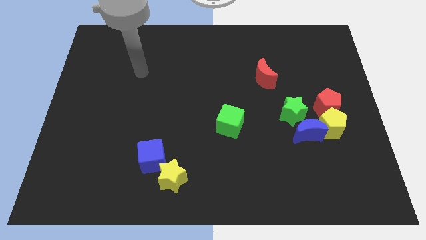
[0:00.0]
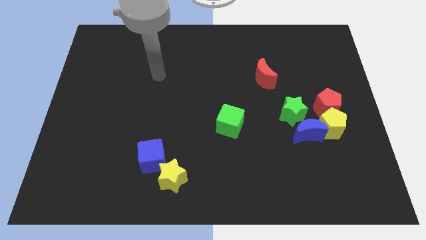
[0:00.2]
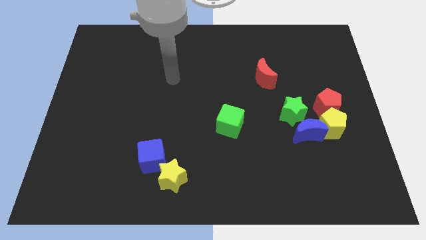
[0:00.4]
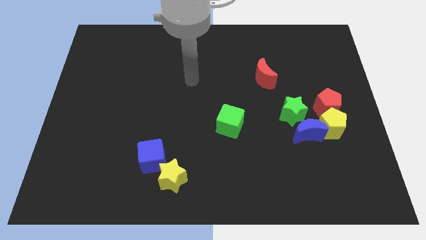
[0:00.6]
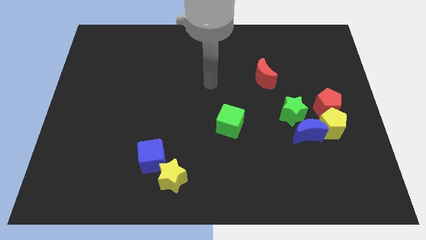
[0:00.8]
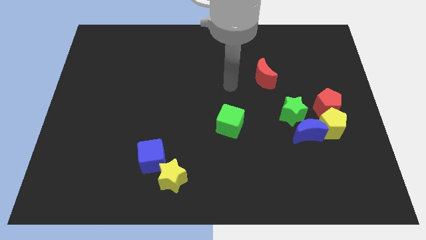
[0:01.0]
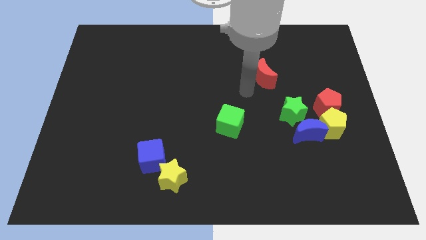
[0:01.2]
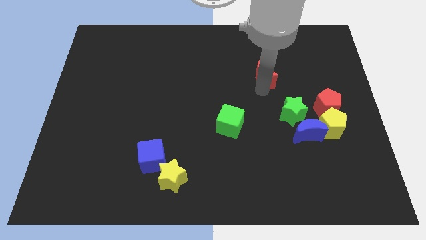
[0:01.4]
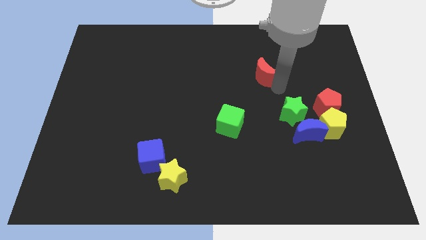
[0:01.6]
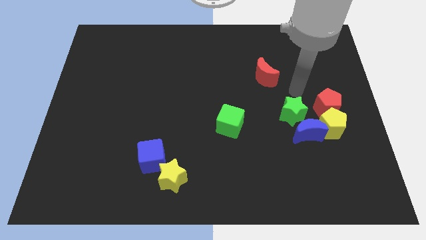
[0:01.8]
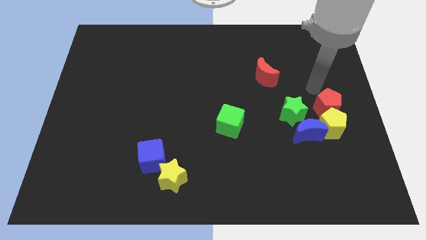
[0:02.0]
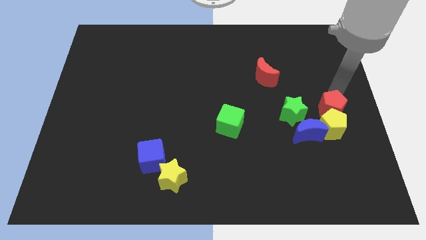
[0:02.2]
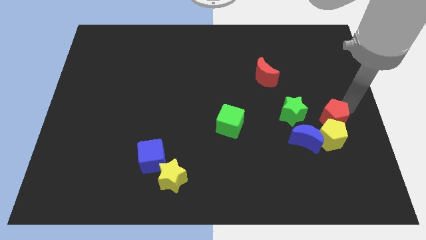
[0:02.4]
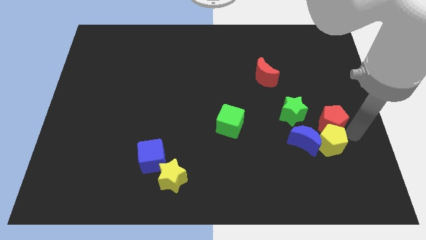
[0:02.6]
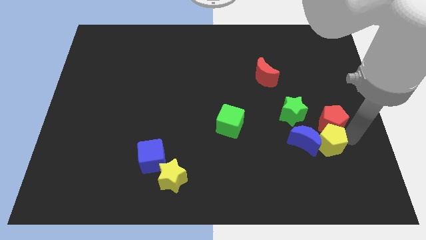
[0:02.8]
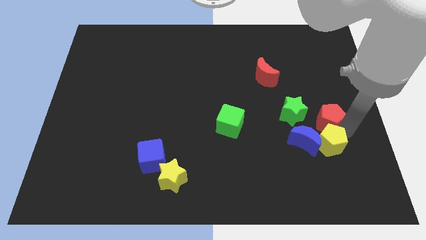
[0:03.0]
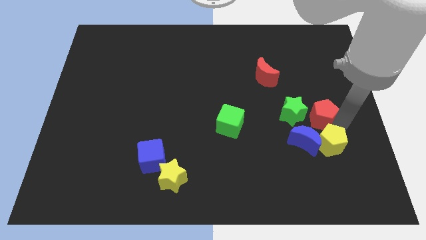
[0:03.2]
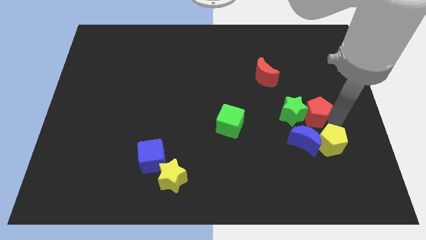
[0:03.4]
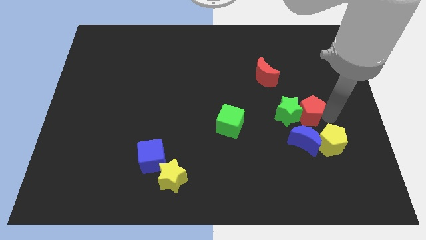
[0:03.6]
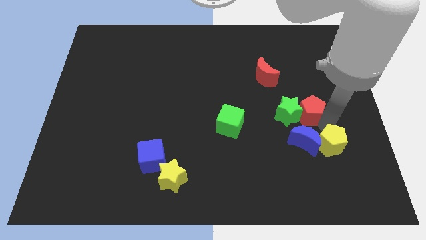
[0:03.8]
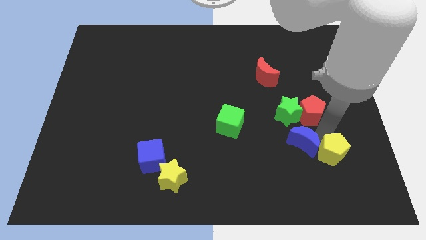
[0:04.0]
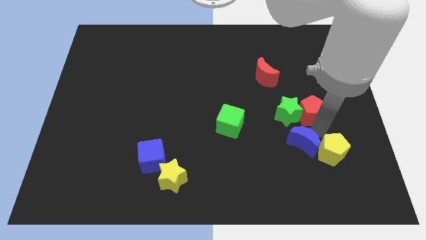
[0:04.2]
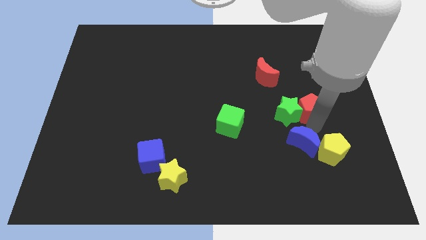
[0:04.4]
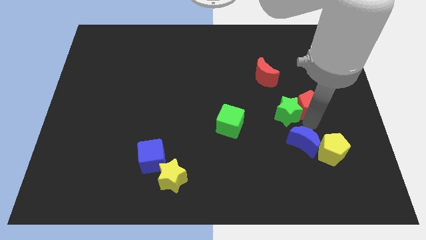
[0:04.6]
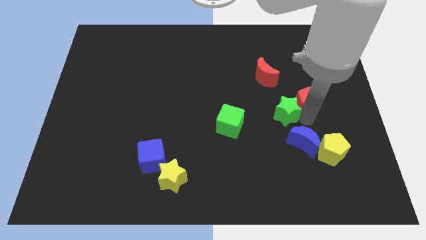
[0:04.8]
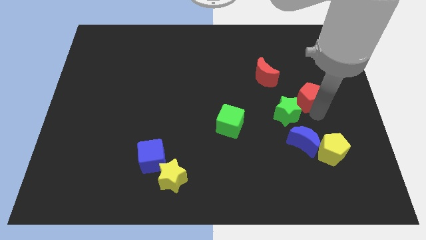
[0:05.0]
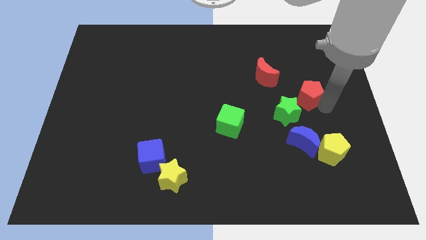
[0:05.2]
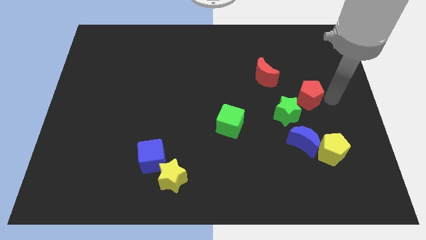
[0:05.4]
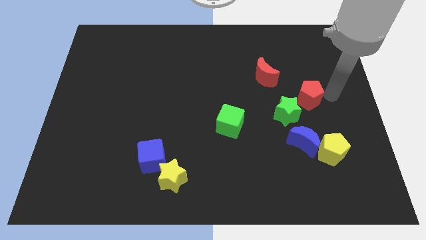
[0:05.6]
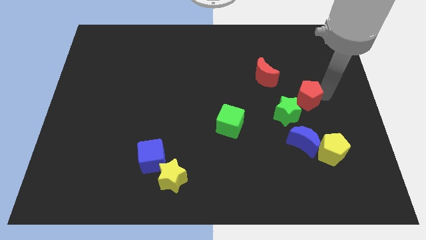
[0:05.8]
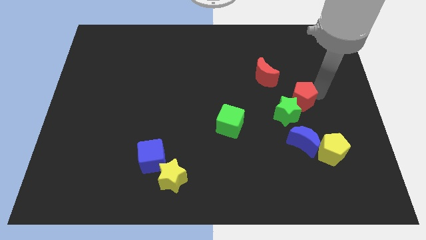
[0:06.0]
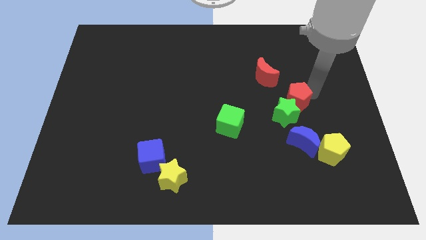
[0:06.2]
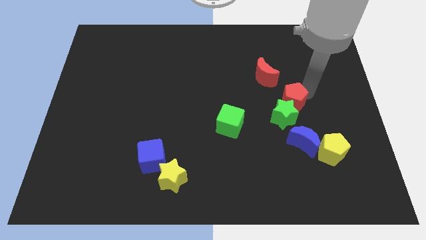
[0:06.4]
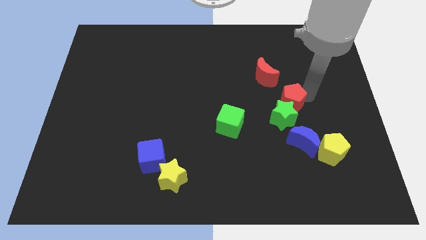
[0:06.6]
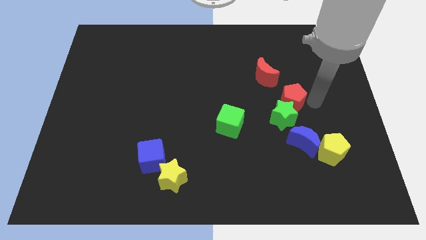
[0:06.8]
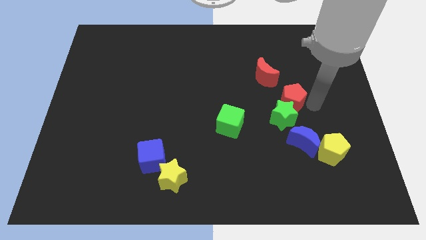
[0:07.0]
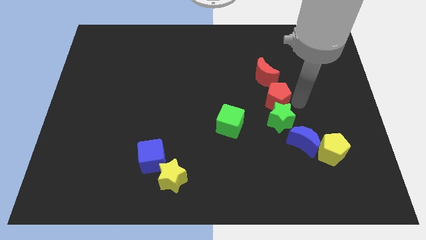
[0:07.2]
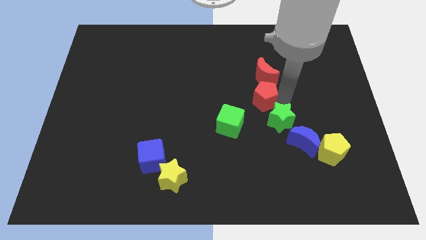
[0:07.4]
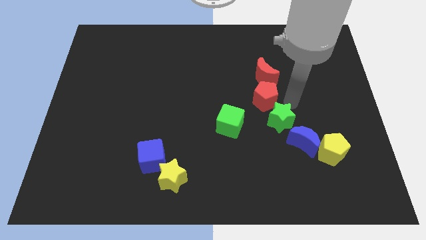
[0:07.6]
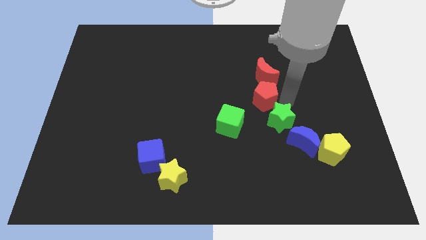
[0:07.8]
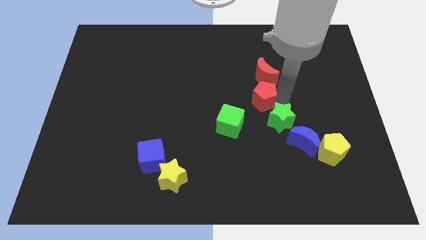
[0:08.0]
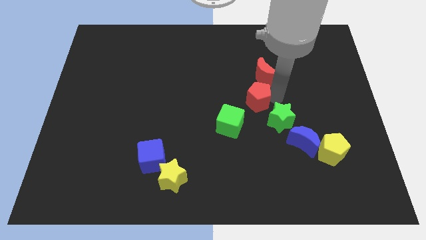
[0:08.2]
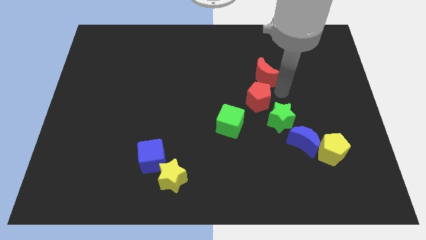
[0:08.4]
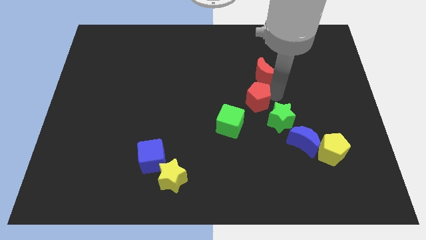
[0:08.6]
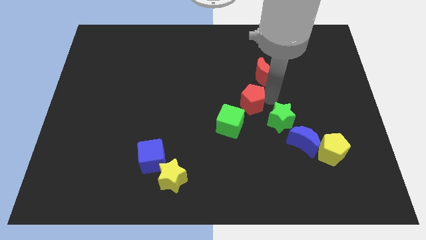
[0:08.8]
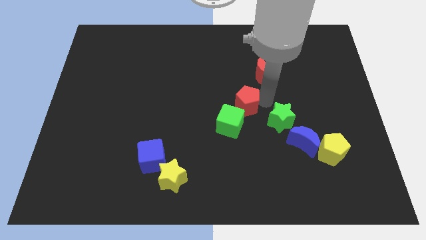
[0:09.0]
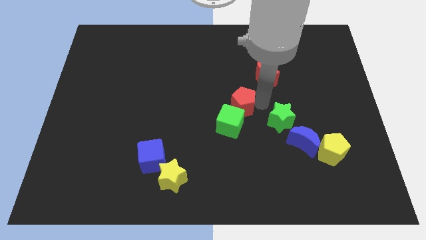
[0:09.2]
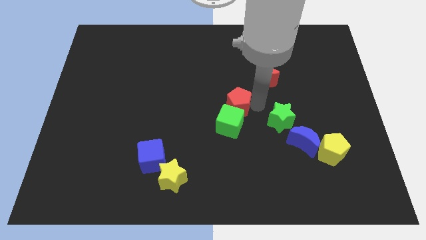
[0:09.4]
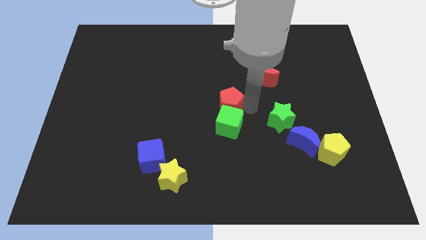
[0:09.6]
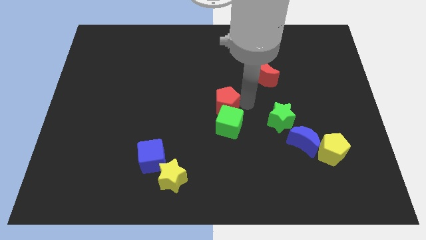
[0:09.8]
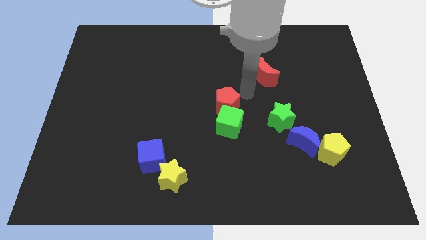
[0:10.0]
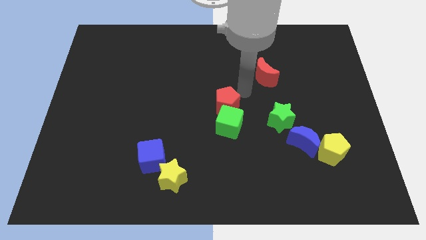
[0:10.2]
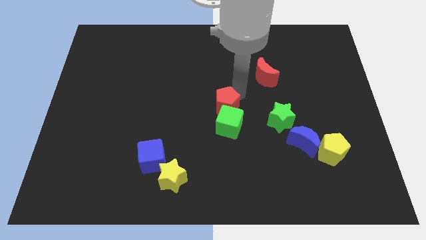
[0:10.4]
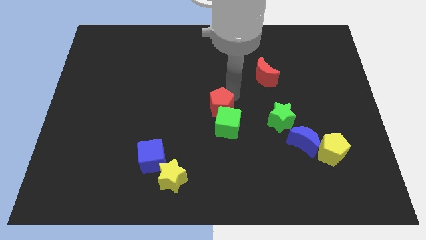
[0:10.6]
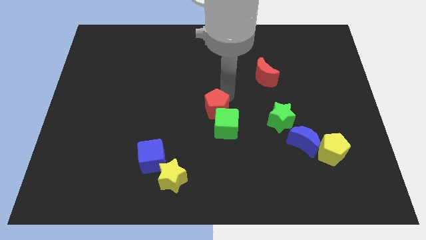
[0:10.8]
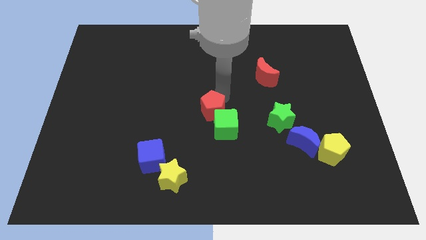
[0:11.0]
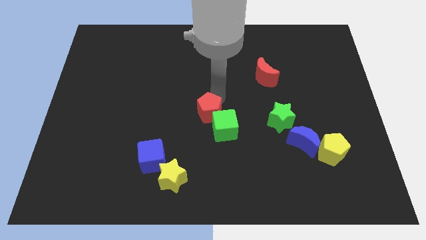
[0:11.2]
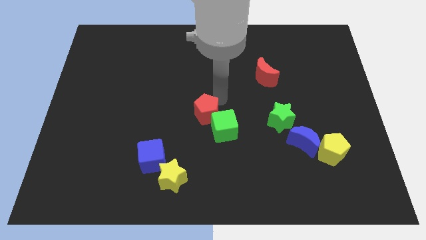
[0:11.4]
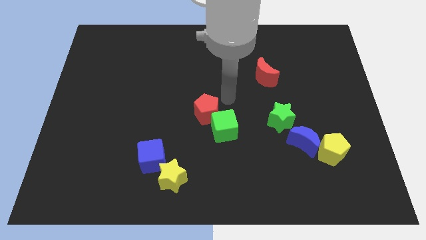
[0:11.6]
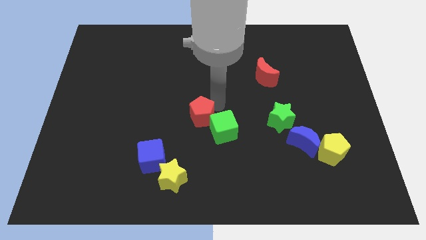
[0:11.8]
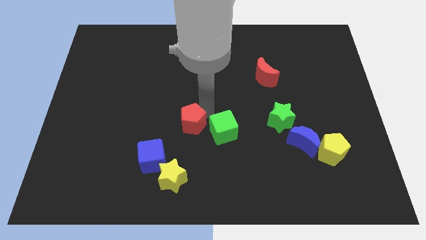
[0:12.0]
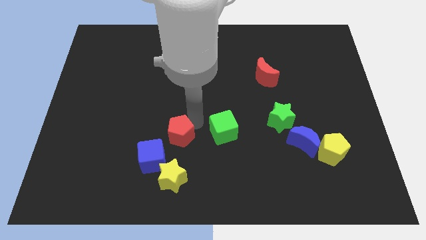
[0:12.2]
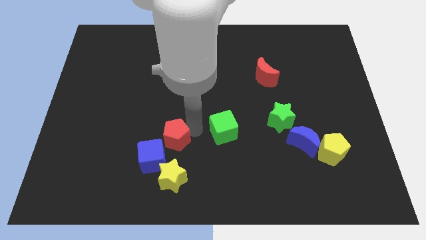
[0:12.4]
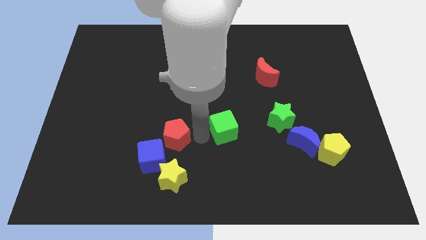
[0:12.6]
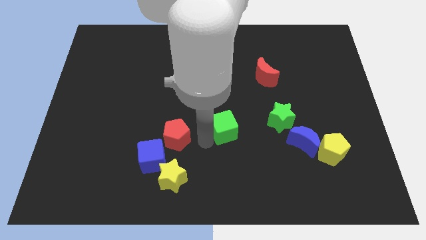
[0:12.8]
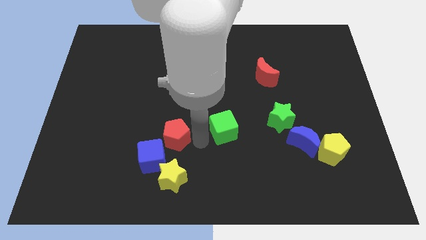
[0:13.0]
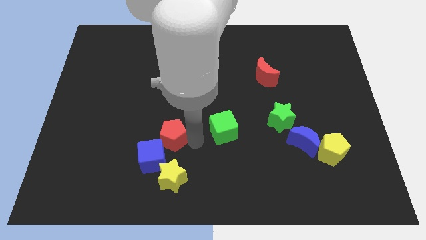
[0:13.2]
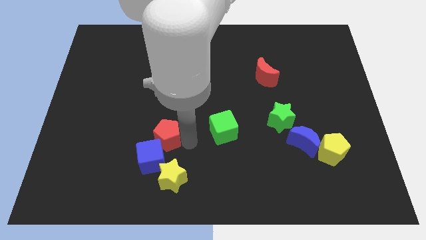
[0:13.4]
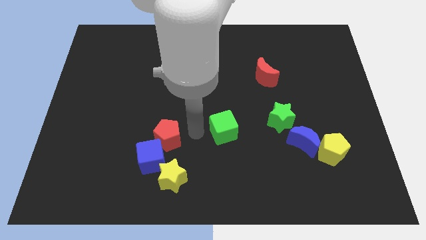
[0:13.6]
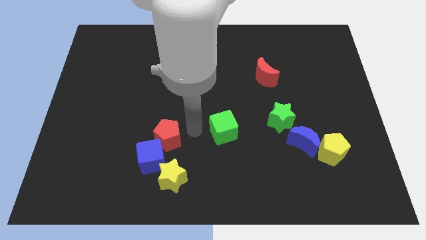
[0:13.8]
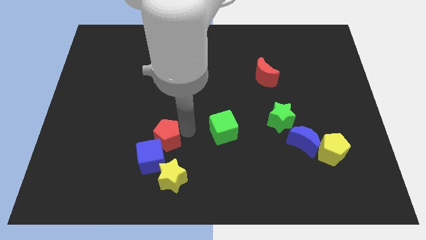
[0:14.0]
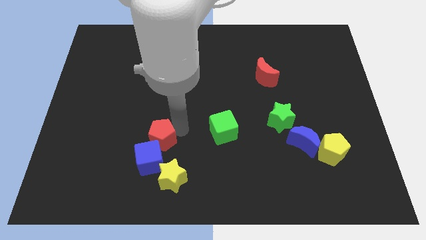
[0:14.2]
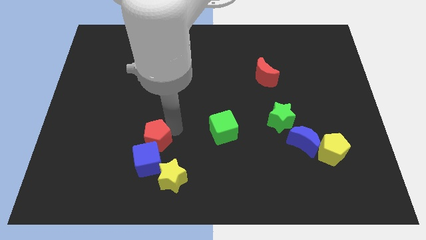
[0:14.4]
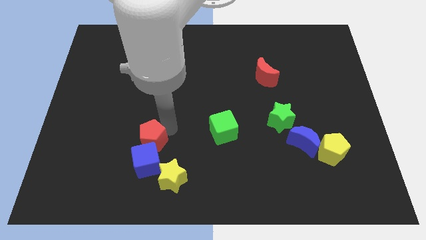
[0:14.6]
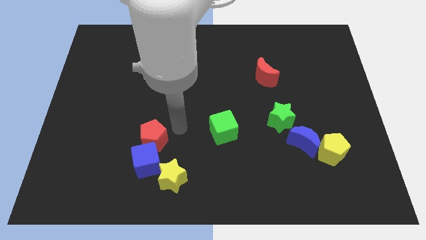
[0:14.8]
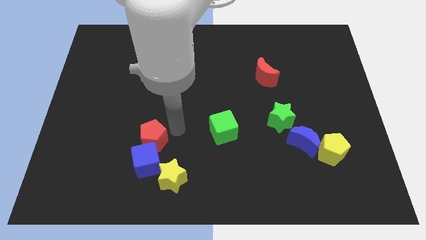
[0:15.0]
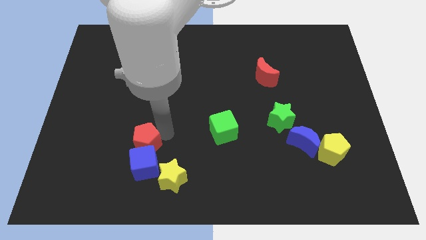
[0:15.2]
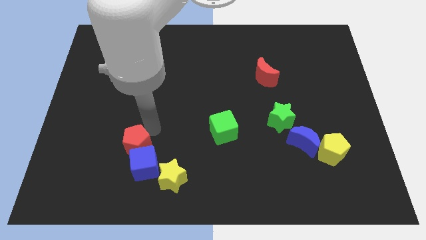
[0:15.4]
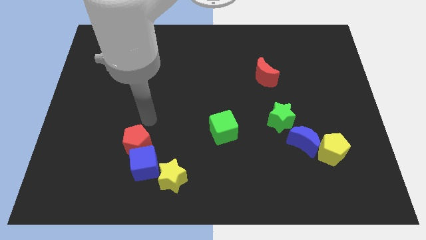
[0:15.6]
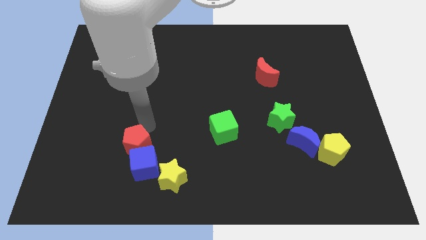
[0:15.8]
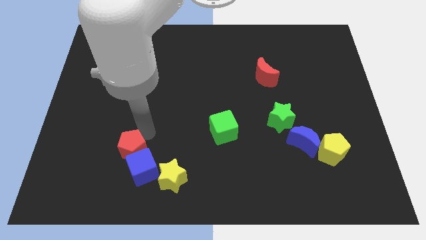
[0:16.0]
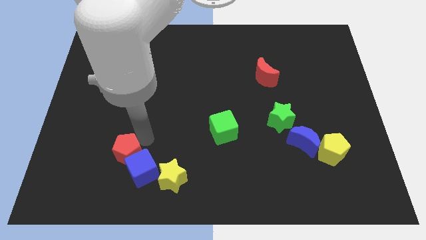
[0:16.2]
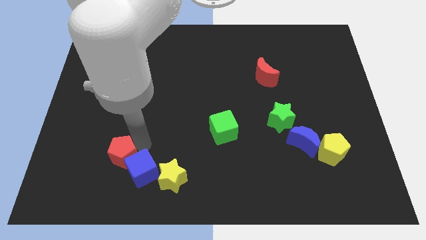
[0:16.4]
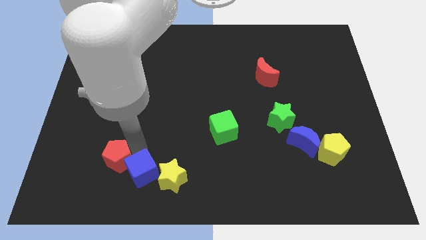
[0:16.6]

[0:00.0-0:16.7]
move the red pentagon to the left side of the yellow star
